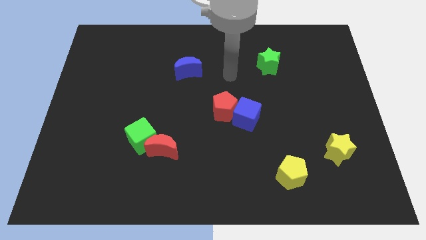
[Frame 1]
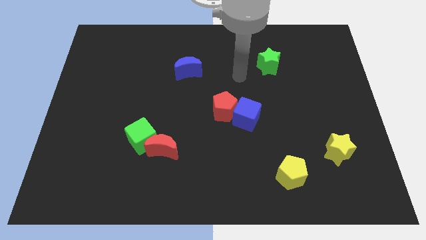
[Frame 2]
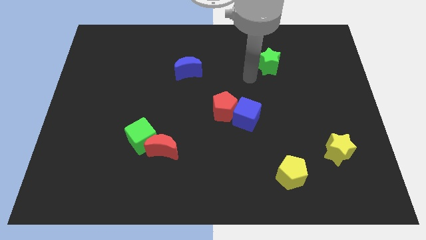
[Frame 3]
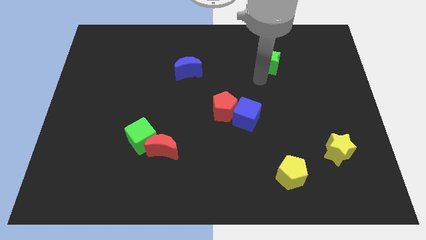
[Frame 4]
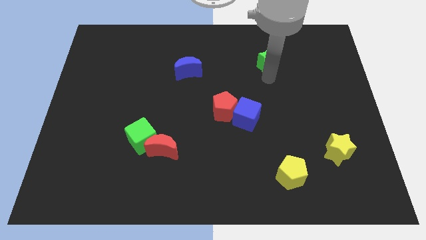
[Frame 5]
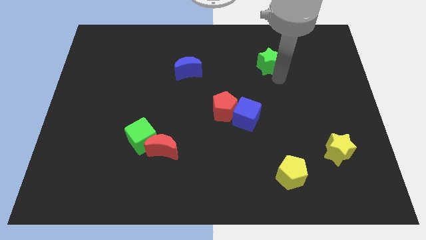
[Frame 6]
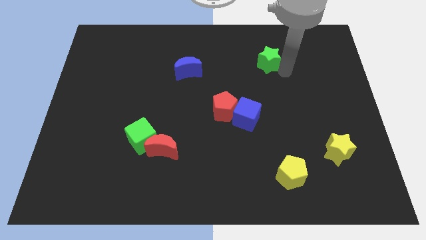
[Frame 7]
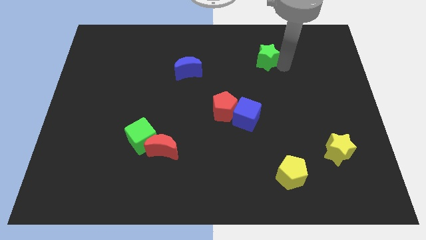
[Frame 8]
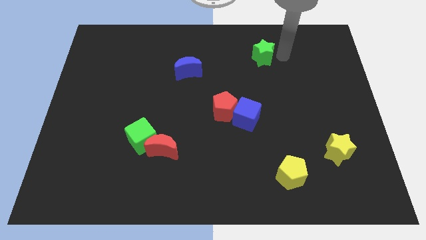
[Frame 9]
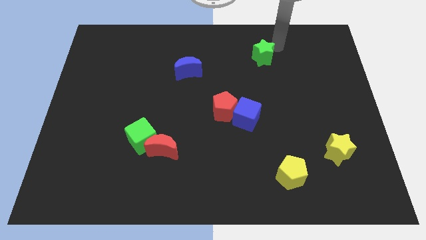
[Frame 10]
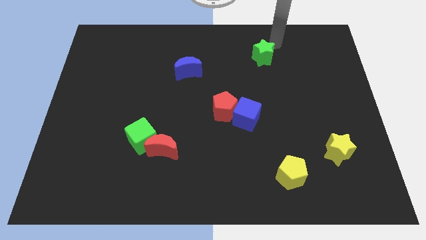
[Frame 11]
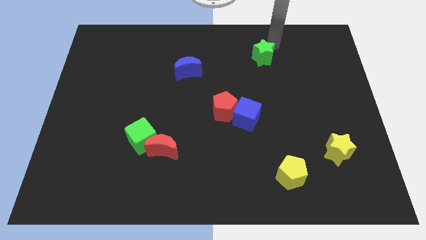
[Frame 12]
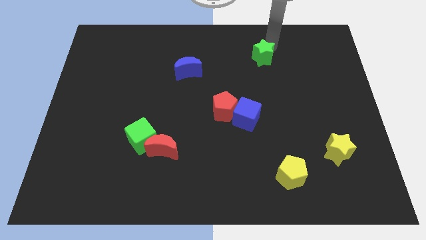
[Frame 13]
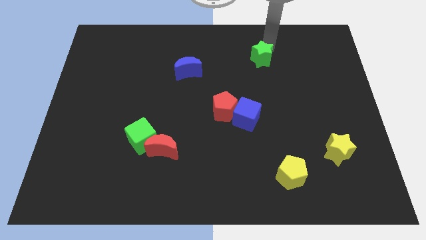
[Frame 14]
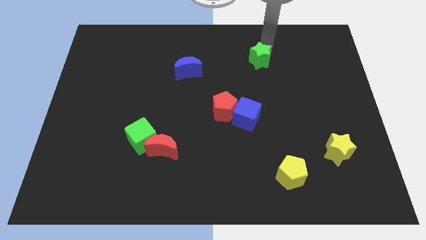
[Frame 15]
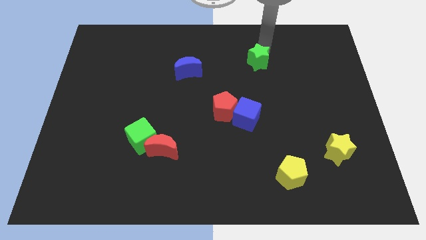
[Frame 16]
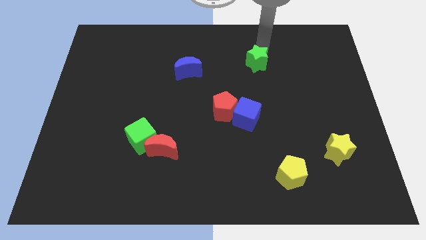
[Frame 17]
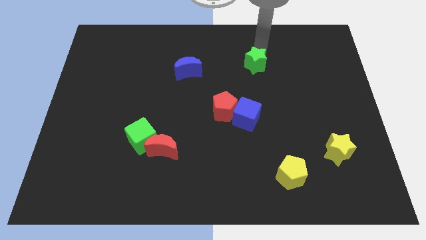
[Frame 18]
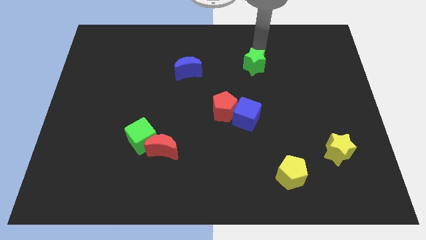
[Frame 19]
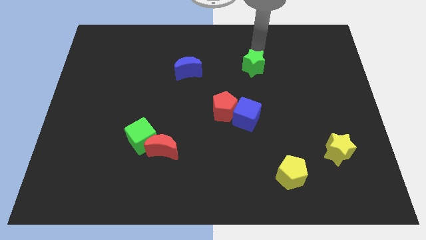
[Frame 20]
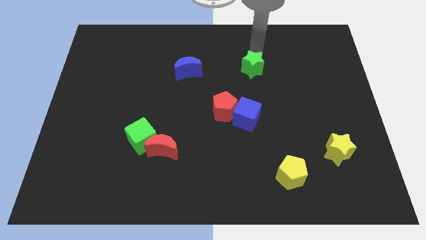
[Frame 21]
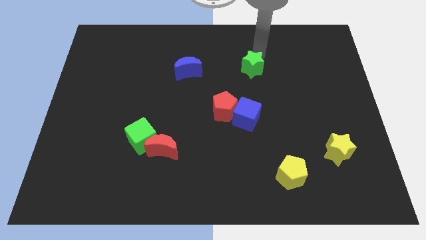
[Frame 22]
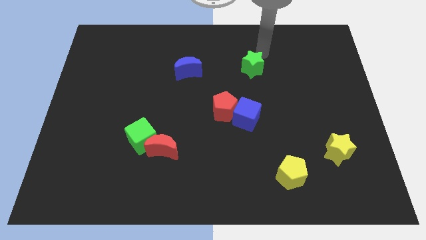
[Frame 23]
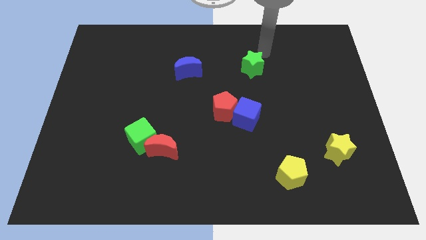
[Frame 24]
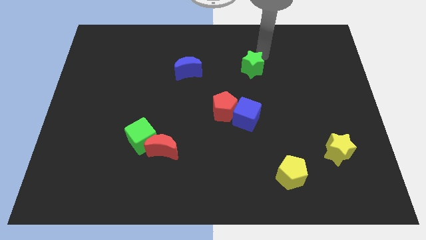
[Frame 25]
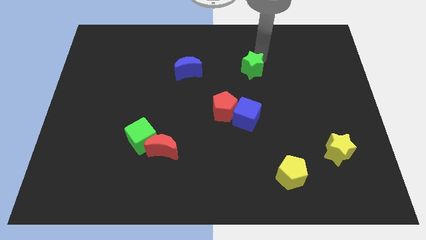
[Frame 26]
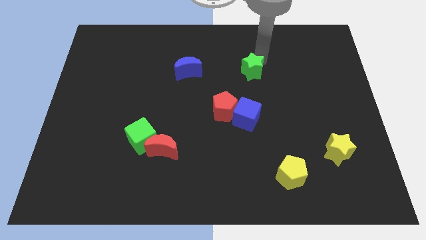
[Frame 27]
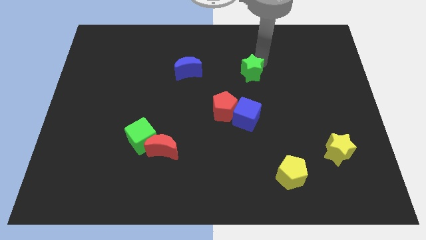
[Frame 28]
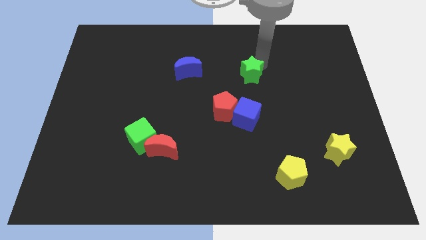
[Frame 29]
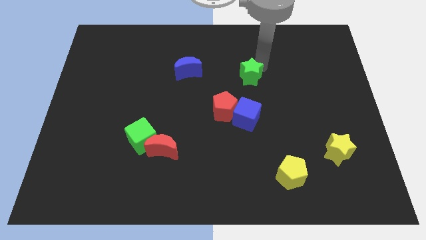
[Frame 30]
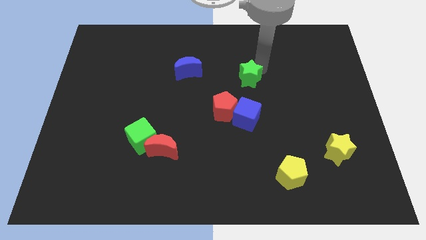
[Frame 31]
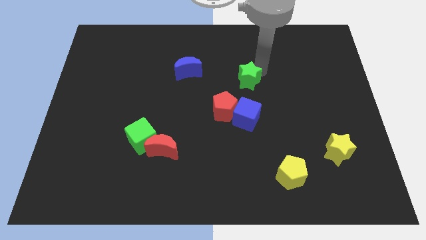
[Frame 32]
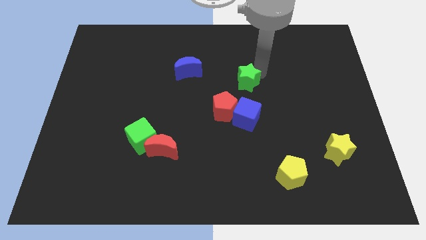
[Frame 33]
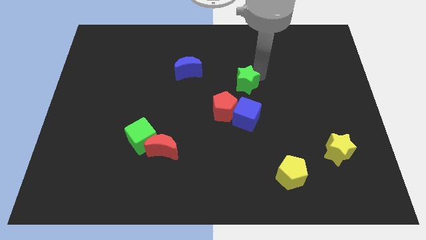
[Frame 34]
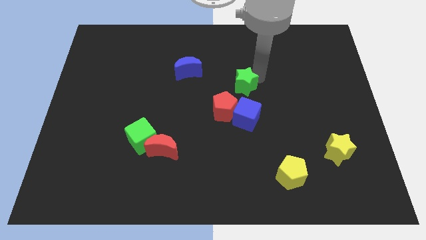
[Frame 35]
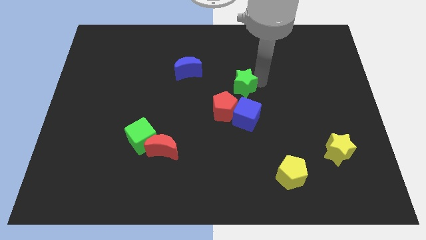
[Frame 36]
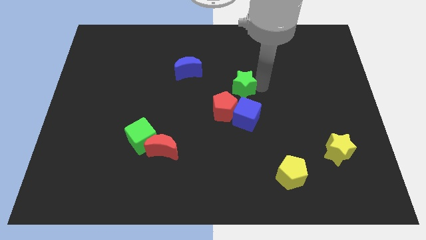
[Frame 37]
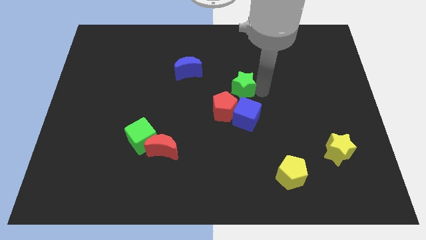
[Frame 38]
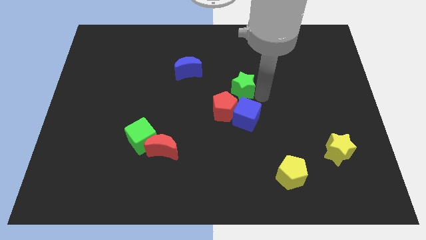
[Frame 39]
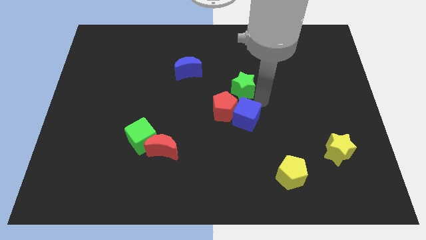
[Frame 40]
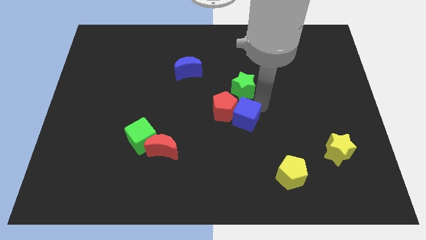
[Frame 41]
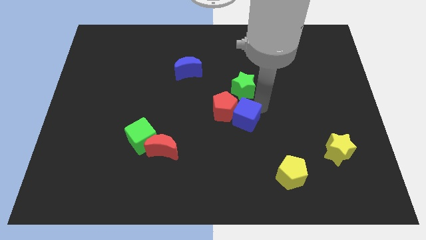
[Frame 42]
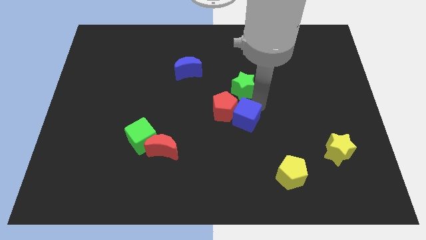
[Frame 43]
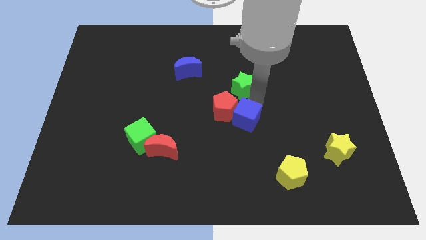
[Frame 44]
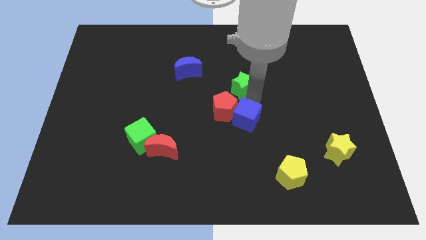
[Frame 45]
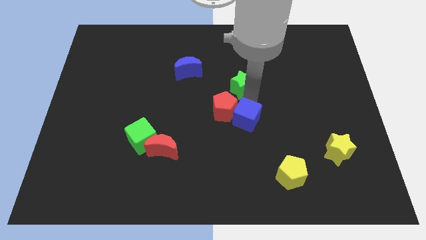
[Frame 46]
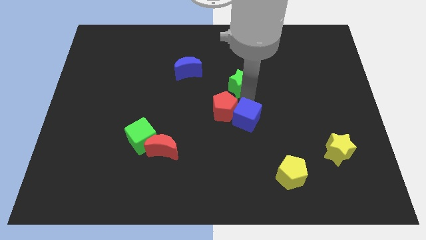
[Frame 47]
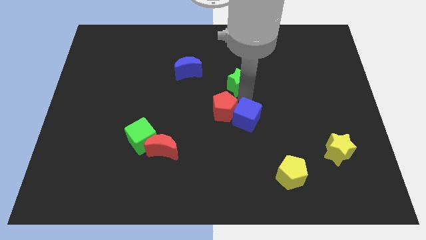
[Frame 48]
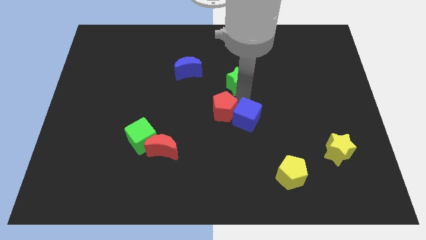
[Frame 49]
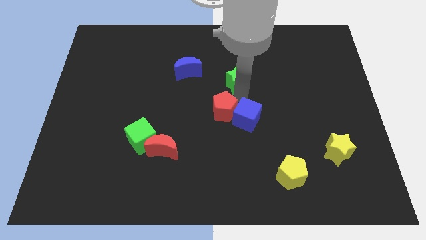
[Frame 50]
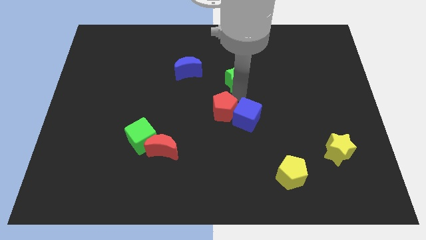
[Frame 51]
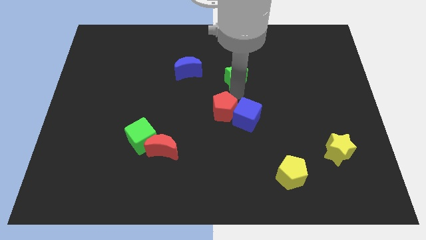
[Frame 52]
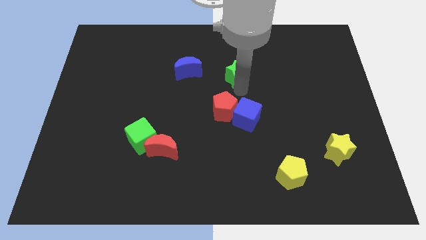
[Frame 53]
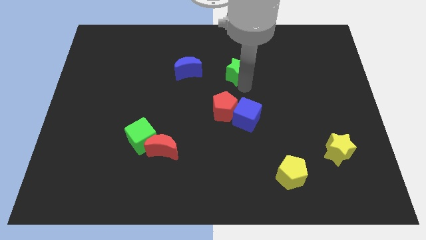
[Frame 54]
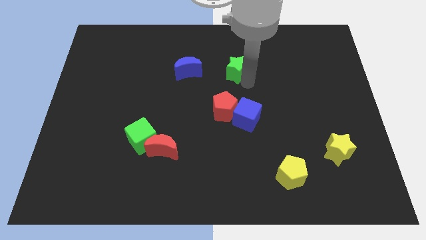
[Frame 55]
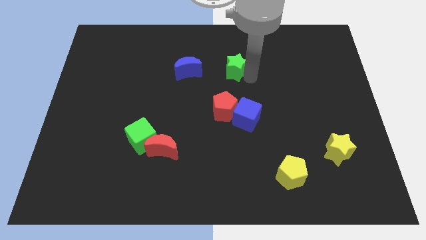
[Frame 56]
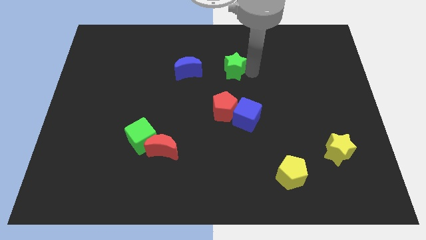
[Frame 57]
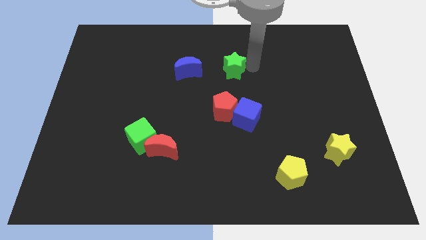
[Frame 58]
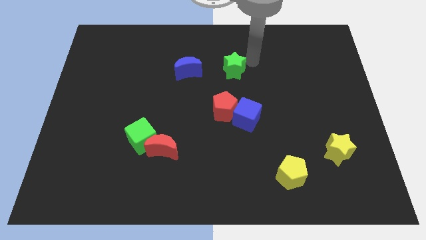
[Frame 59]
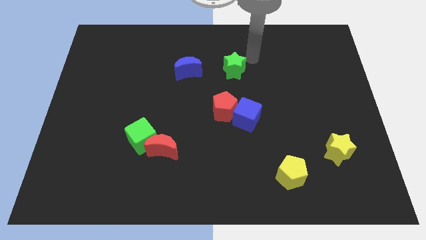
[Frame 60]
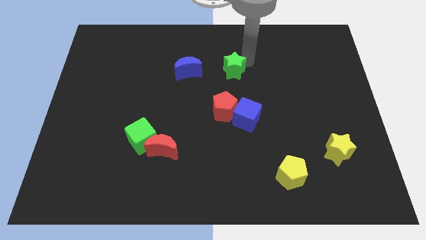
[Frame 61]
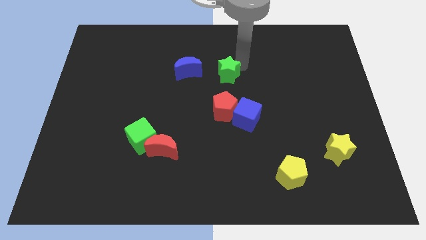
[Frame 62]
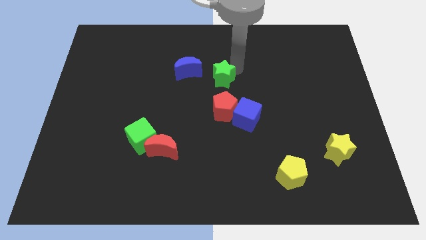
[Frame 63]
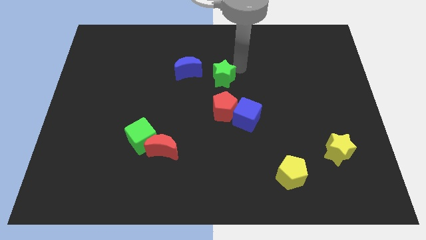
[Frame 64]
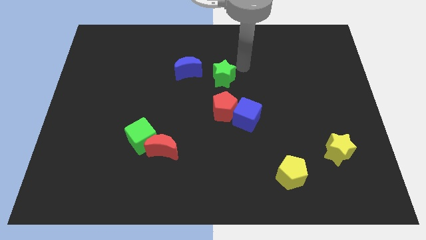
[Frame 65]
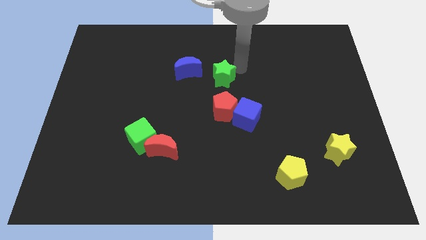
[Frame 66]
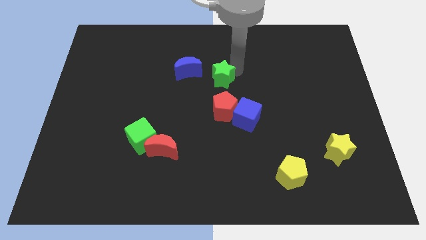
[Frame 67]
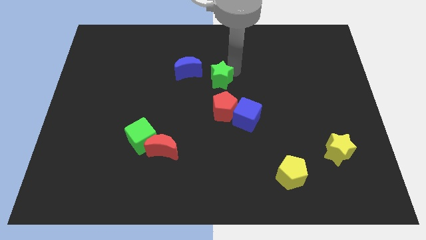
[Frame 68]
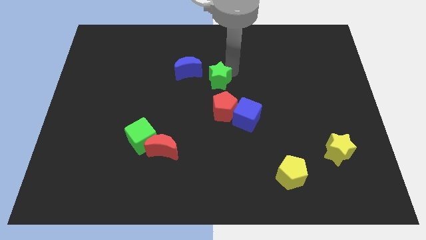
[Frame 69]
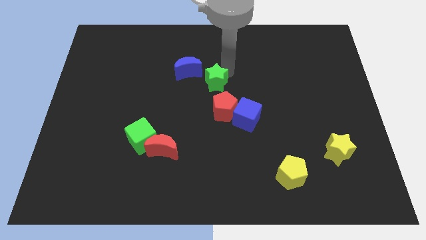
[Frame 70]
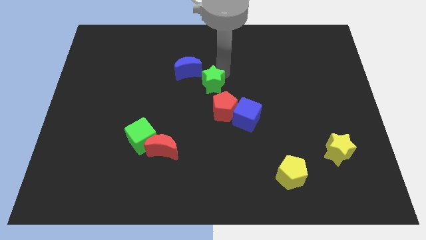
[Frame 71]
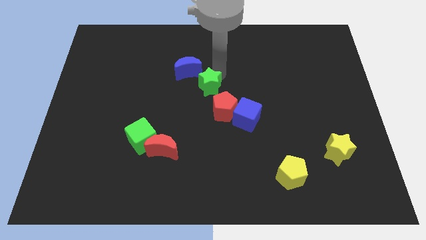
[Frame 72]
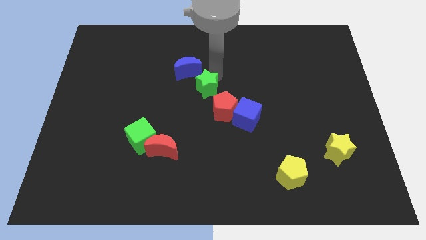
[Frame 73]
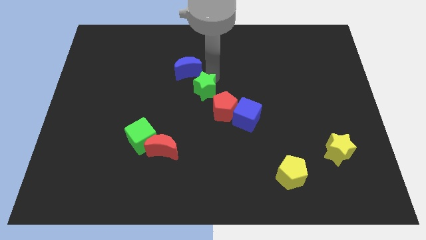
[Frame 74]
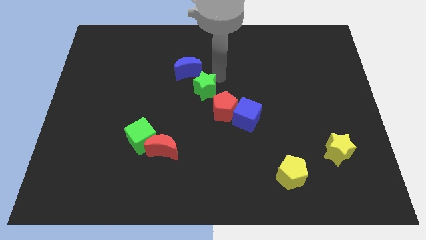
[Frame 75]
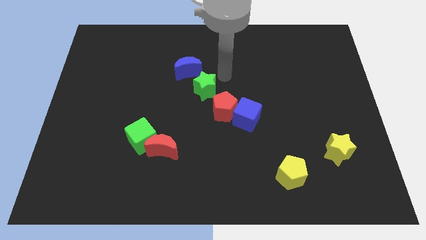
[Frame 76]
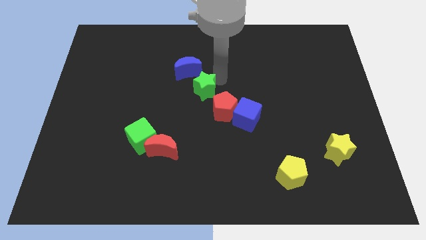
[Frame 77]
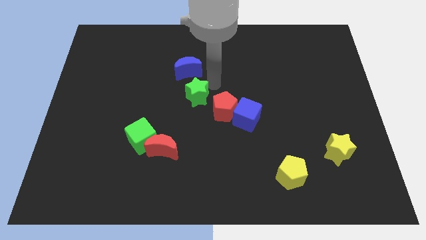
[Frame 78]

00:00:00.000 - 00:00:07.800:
slide the green star just left of the red pentagon
